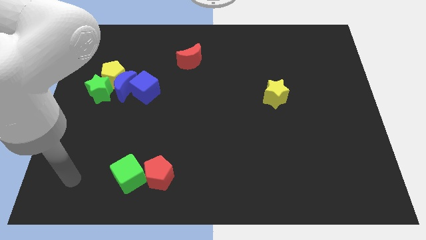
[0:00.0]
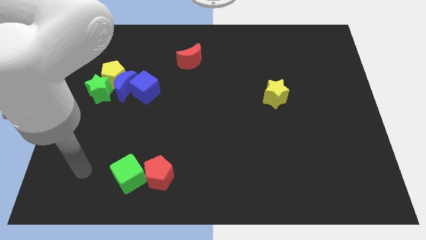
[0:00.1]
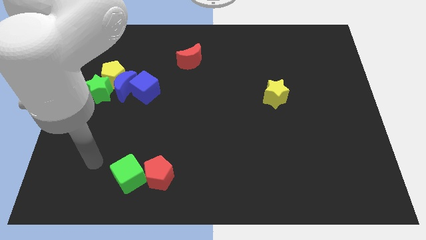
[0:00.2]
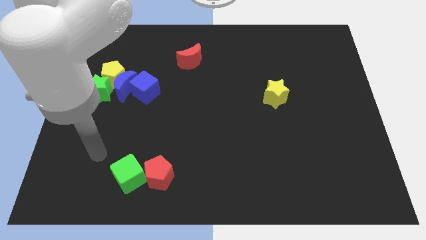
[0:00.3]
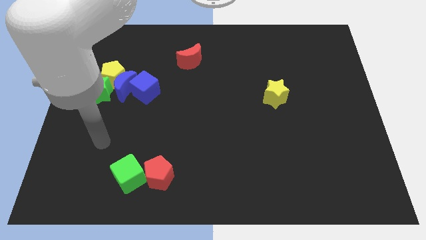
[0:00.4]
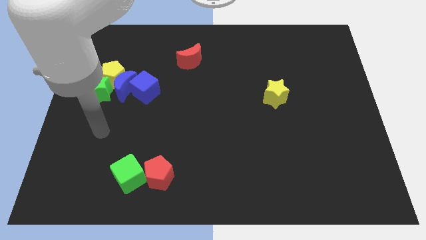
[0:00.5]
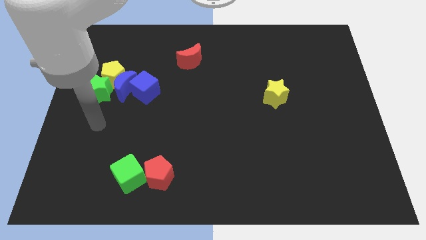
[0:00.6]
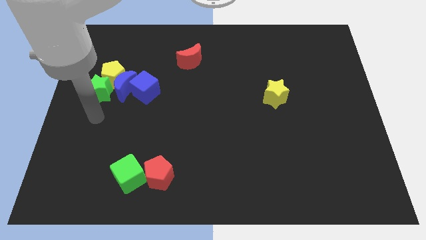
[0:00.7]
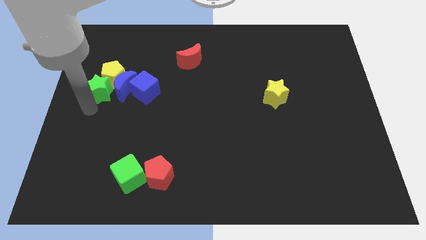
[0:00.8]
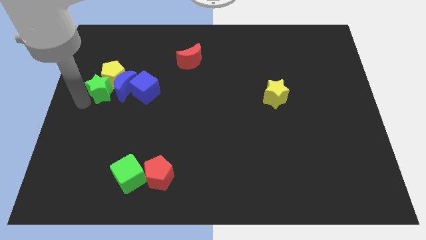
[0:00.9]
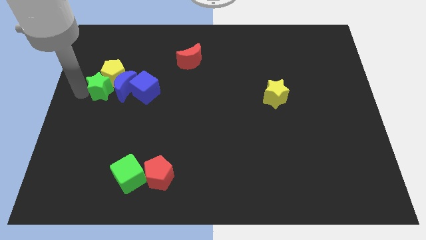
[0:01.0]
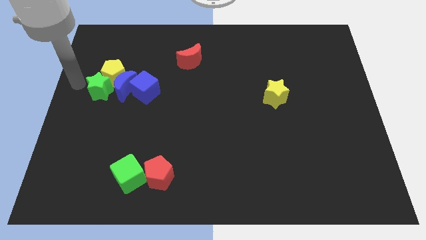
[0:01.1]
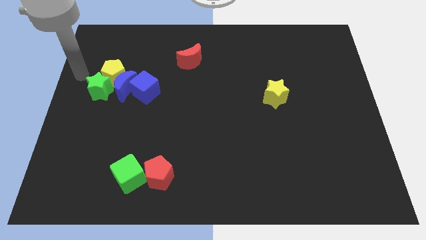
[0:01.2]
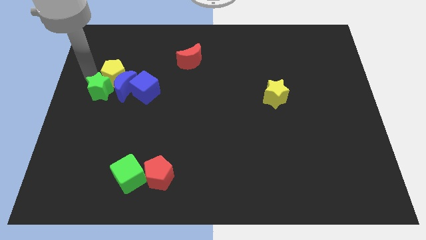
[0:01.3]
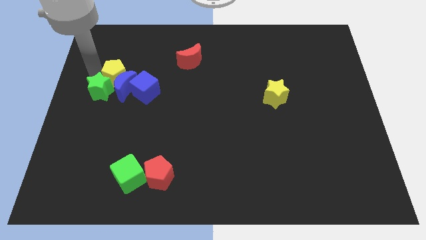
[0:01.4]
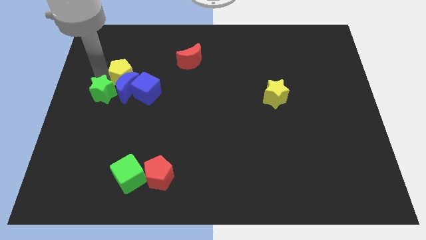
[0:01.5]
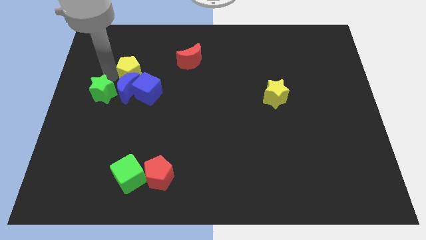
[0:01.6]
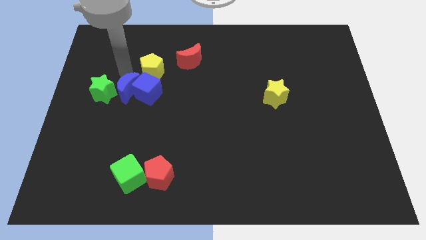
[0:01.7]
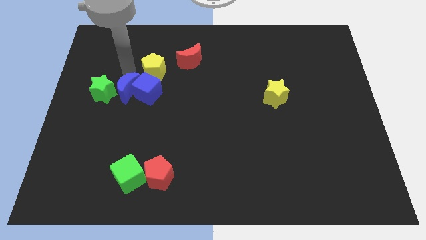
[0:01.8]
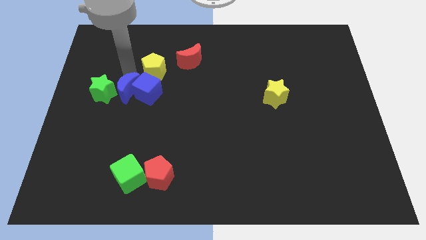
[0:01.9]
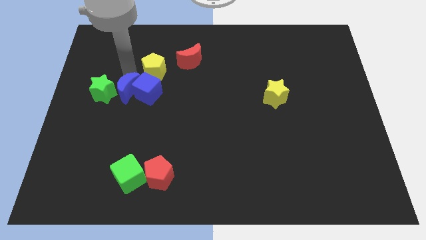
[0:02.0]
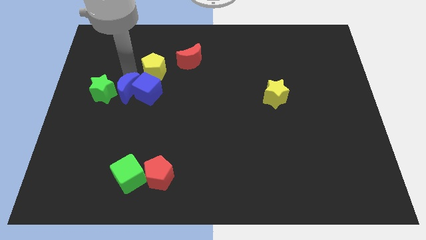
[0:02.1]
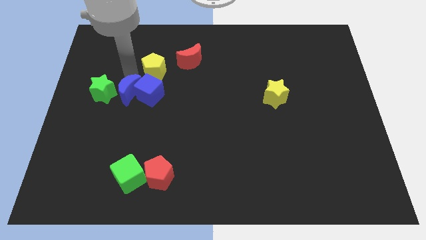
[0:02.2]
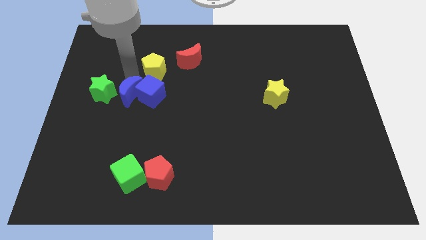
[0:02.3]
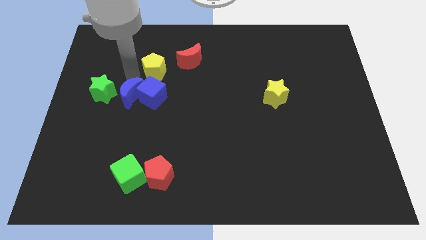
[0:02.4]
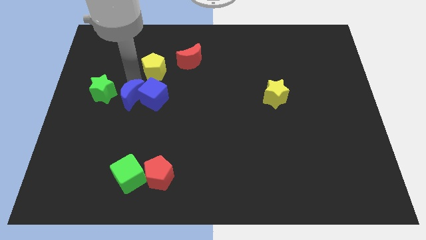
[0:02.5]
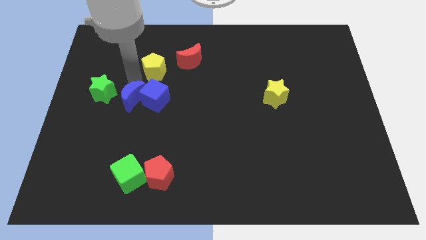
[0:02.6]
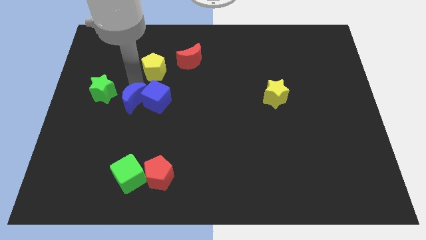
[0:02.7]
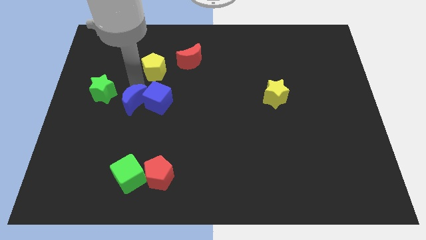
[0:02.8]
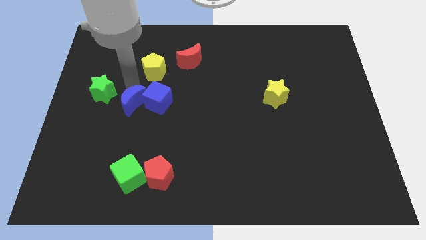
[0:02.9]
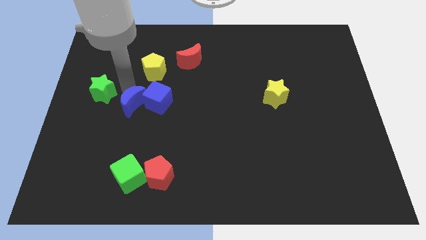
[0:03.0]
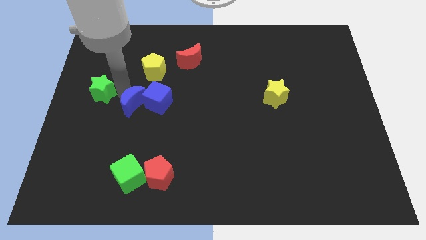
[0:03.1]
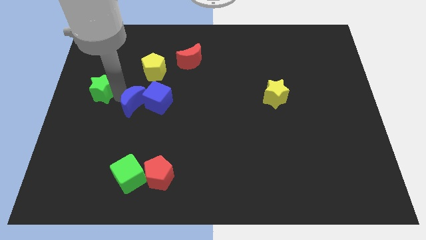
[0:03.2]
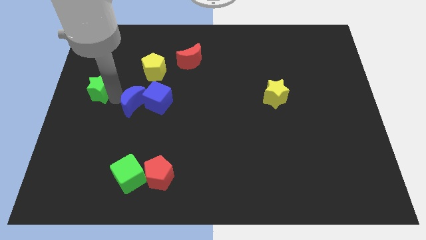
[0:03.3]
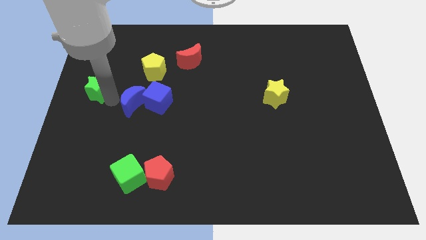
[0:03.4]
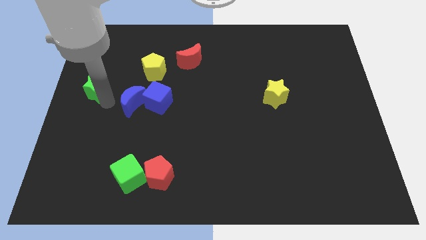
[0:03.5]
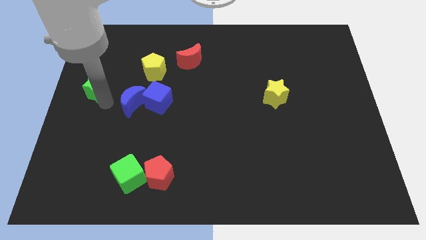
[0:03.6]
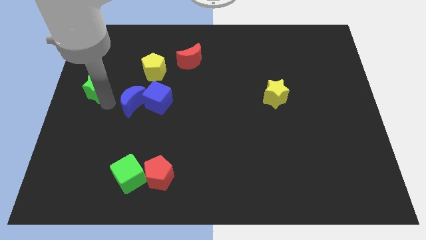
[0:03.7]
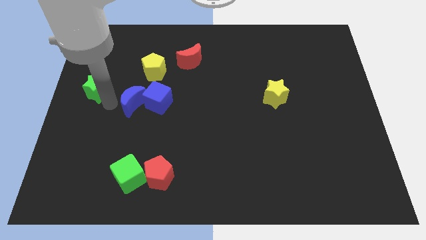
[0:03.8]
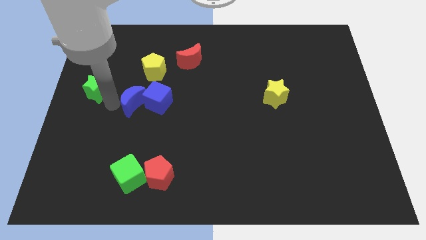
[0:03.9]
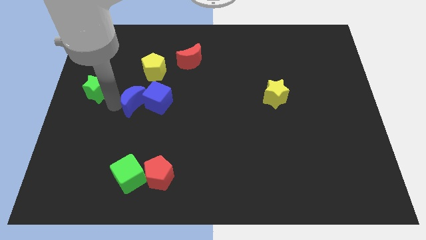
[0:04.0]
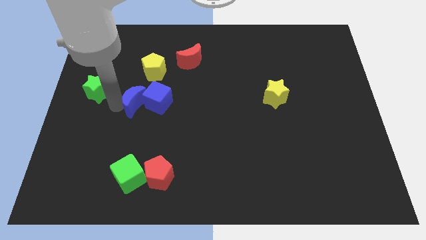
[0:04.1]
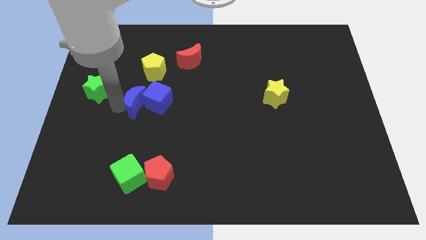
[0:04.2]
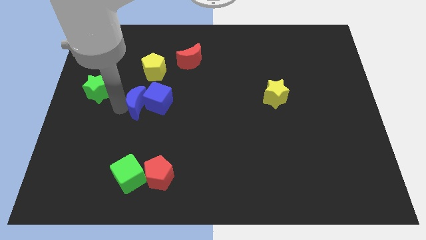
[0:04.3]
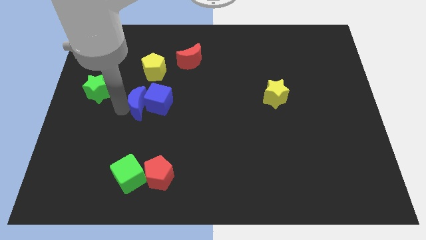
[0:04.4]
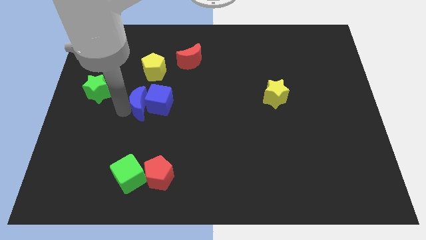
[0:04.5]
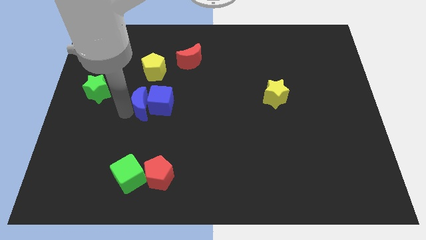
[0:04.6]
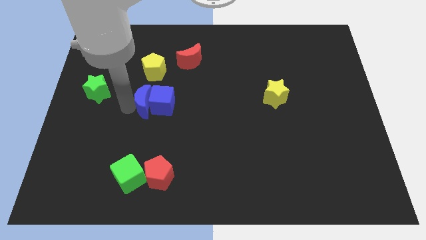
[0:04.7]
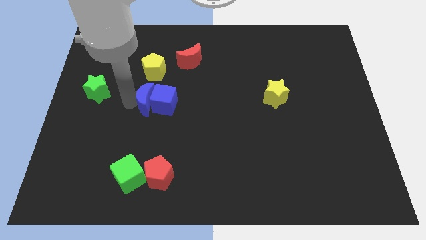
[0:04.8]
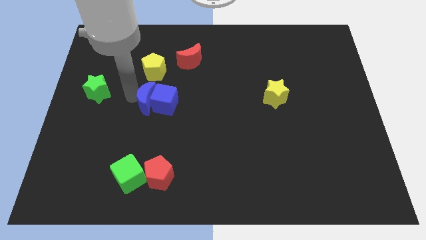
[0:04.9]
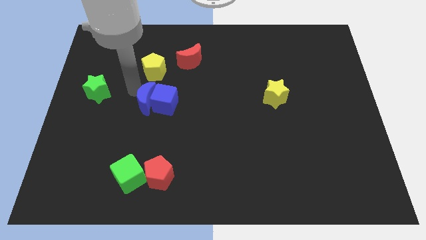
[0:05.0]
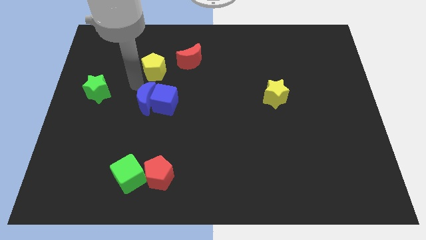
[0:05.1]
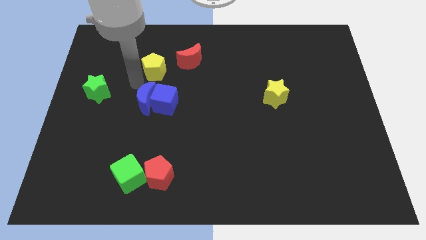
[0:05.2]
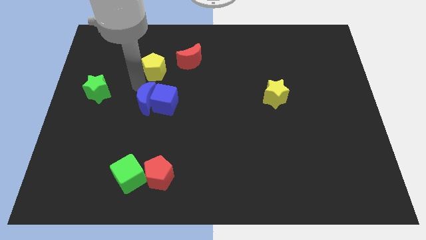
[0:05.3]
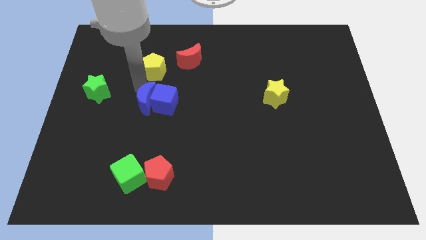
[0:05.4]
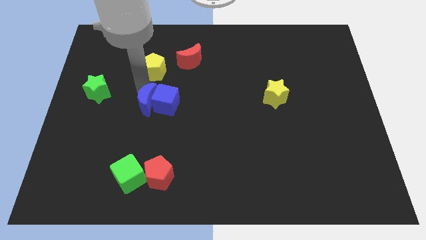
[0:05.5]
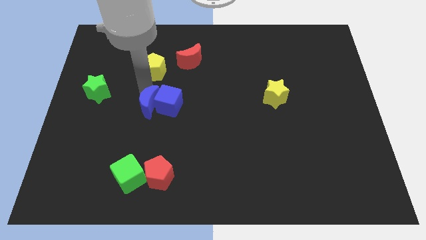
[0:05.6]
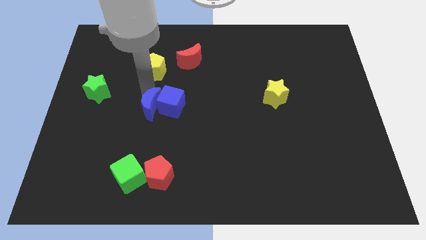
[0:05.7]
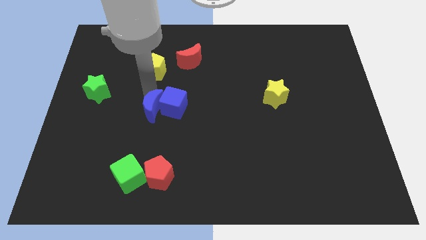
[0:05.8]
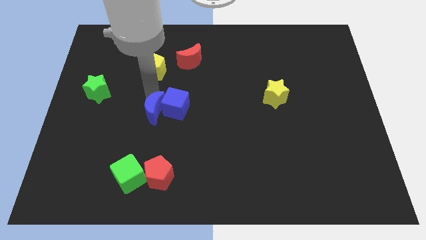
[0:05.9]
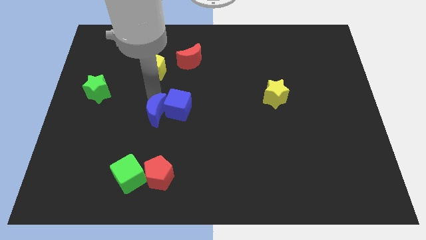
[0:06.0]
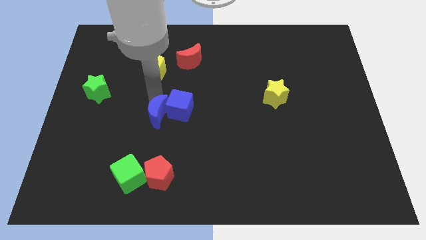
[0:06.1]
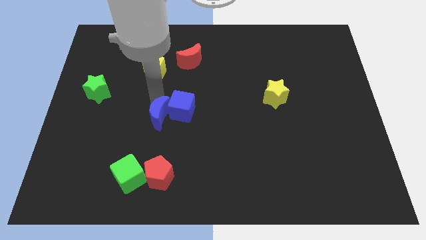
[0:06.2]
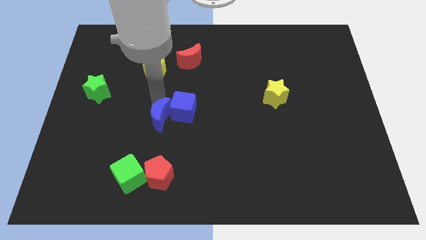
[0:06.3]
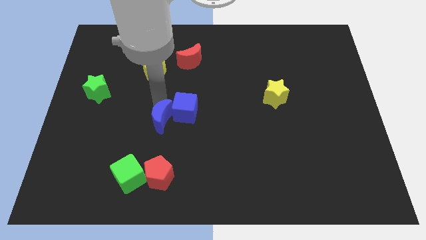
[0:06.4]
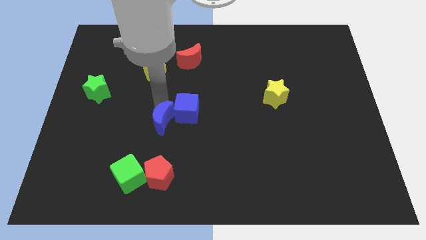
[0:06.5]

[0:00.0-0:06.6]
separate the blue moon from the yellow pentagon, blue cube, and green star

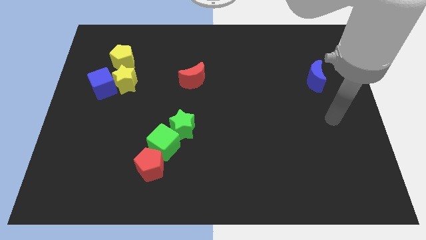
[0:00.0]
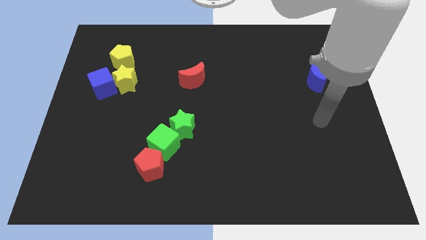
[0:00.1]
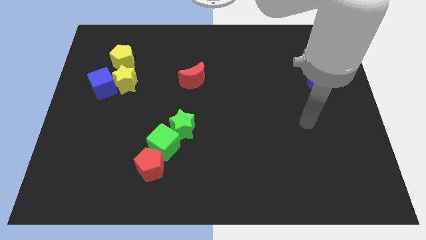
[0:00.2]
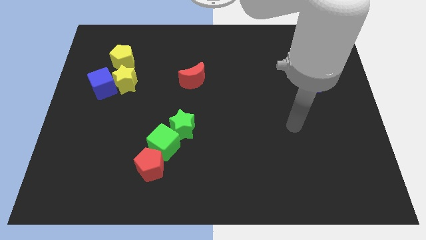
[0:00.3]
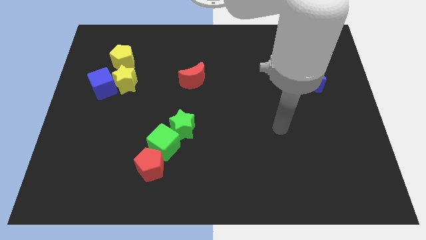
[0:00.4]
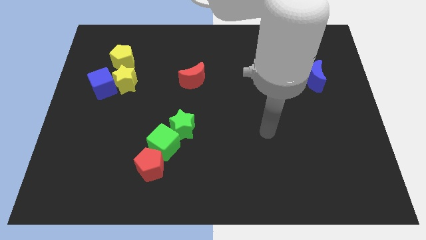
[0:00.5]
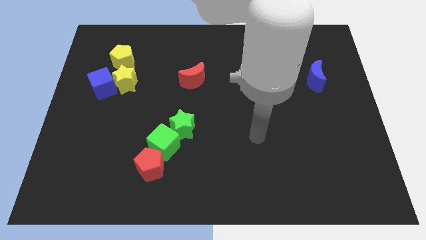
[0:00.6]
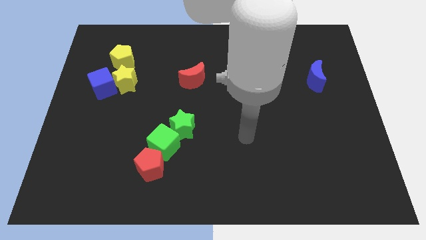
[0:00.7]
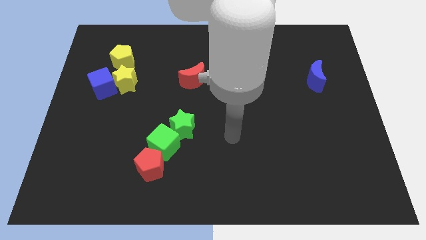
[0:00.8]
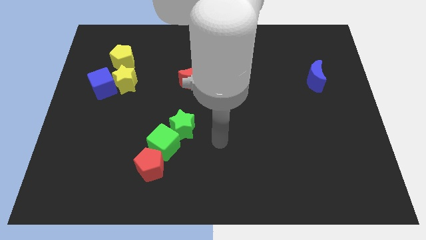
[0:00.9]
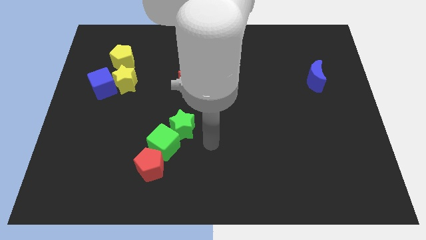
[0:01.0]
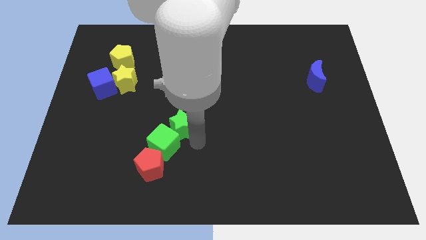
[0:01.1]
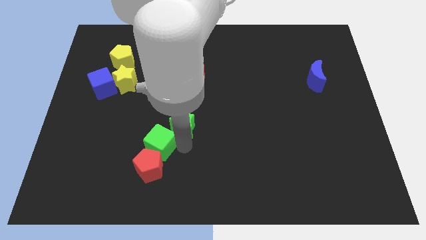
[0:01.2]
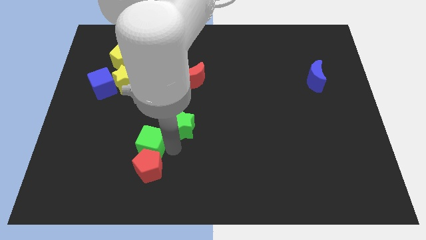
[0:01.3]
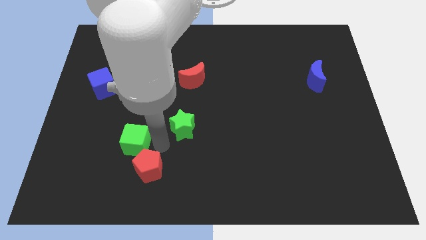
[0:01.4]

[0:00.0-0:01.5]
separate the green star from the green cube

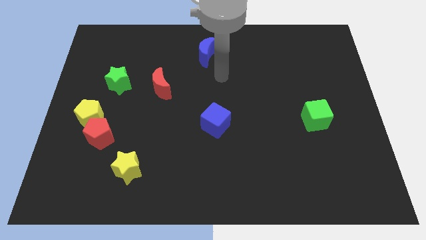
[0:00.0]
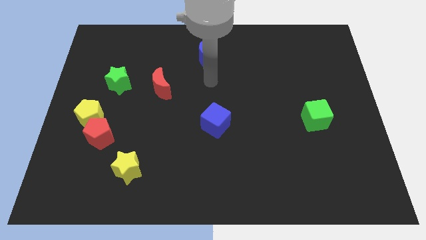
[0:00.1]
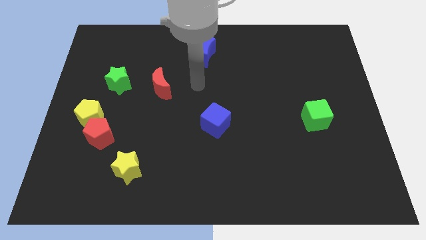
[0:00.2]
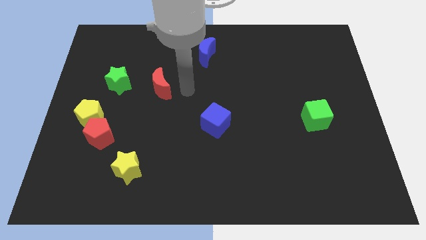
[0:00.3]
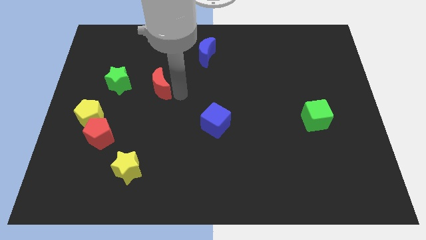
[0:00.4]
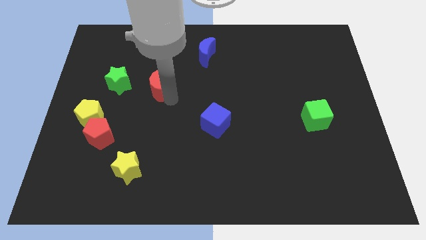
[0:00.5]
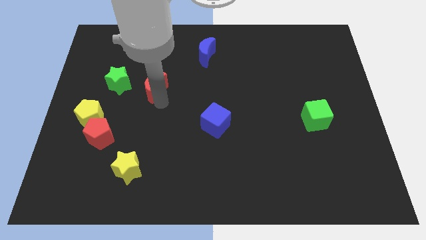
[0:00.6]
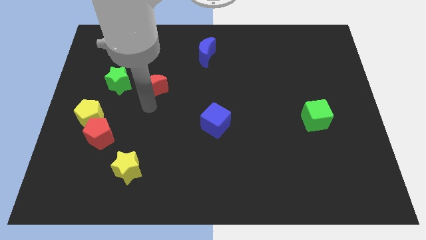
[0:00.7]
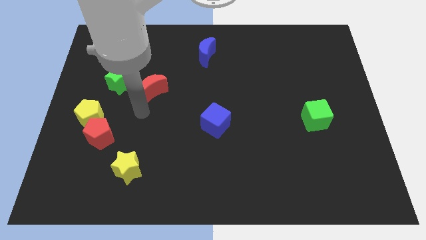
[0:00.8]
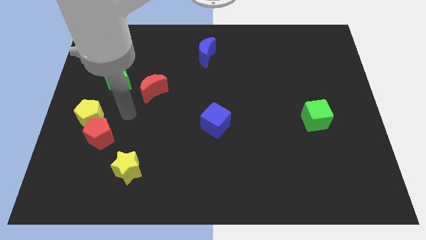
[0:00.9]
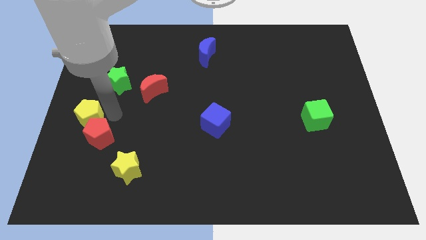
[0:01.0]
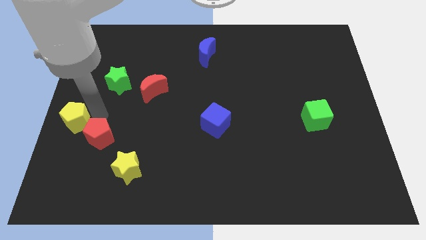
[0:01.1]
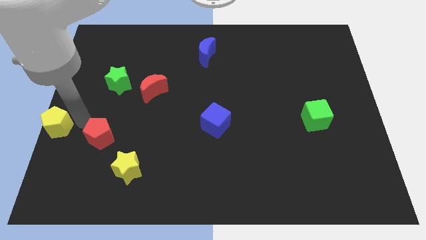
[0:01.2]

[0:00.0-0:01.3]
pull the red pentagon apart from the yellow pentagon

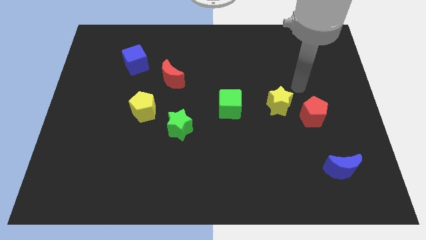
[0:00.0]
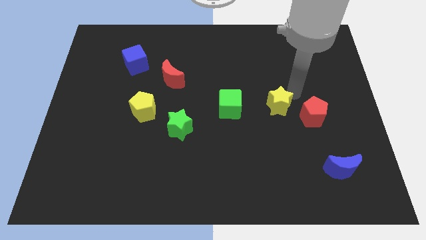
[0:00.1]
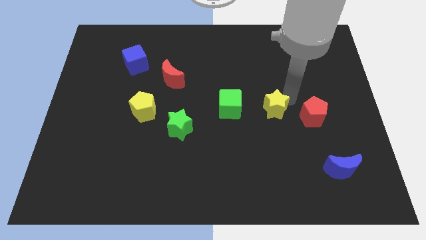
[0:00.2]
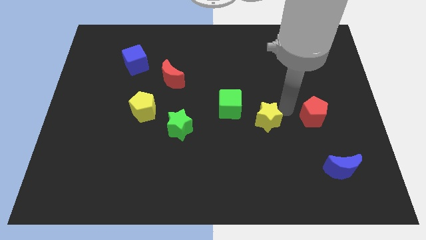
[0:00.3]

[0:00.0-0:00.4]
separate the red pentagon from the yellow star
